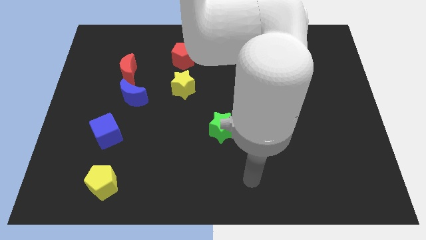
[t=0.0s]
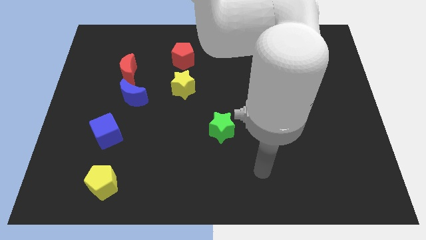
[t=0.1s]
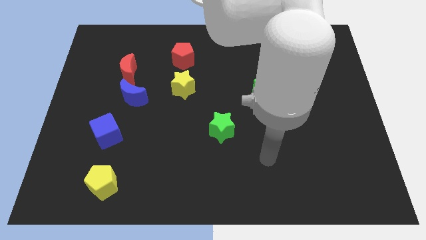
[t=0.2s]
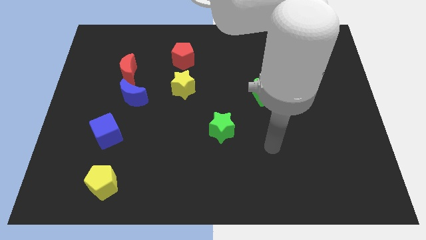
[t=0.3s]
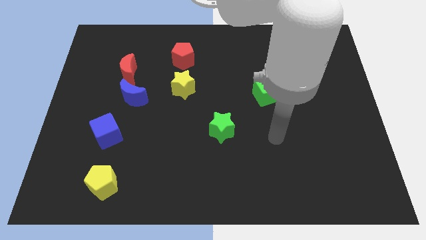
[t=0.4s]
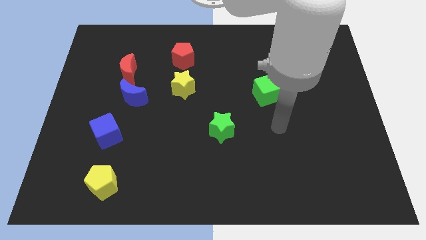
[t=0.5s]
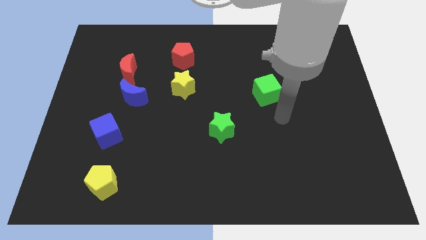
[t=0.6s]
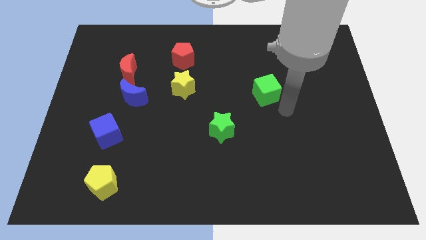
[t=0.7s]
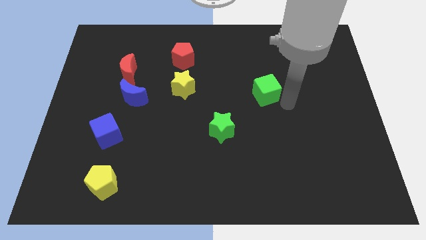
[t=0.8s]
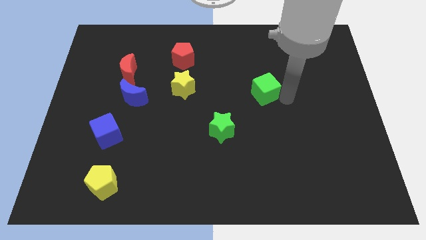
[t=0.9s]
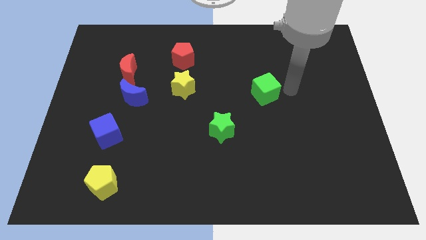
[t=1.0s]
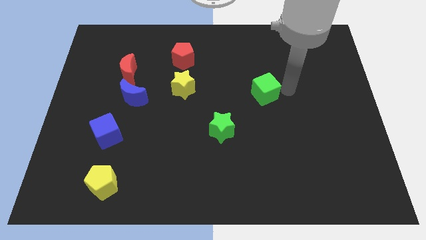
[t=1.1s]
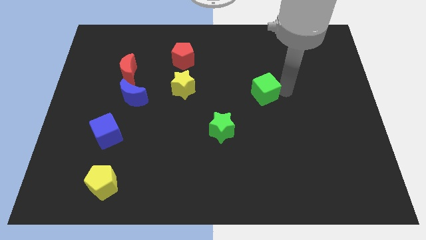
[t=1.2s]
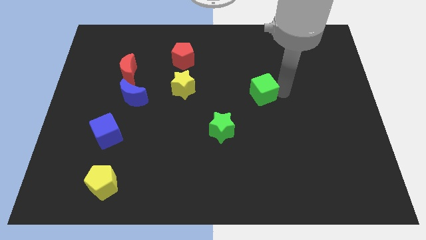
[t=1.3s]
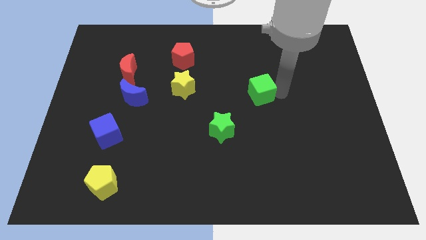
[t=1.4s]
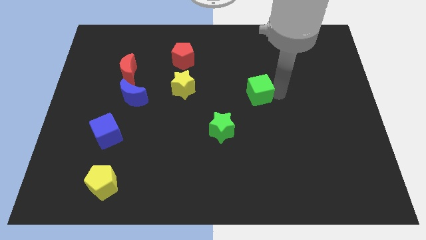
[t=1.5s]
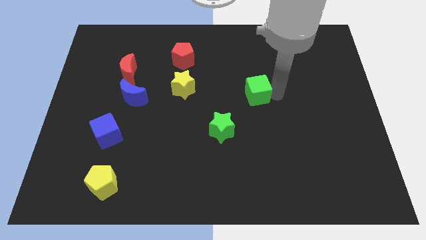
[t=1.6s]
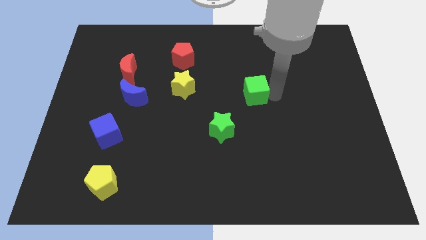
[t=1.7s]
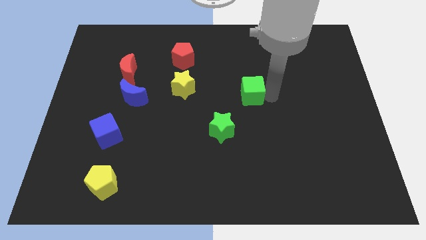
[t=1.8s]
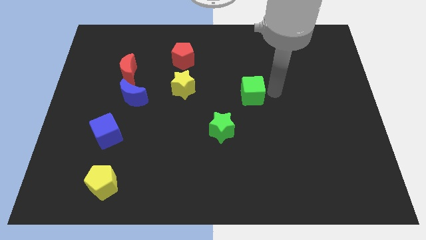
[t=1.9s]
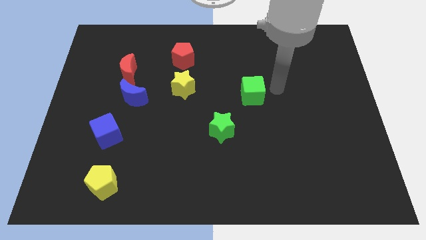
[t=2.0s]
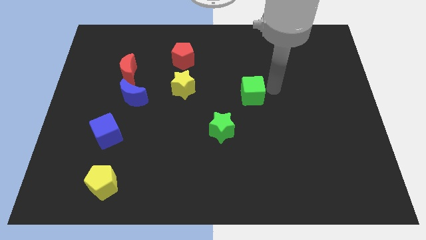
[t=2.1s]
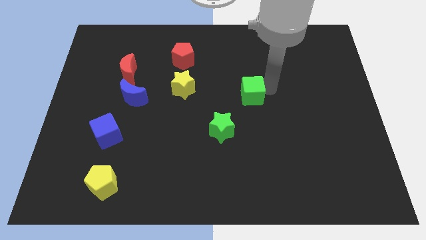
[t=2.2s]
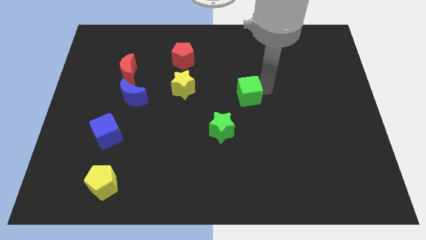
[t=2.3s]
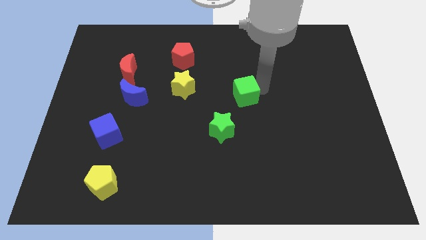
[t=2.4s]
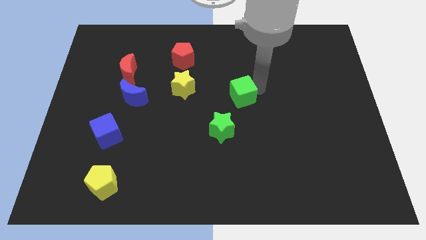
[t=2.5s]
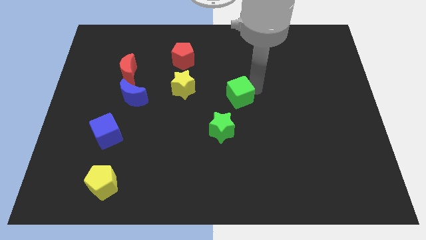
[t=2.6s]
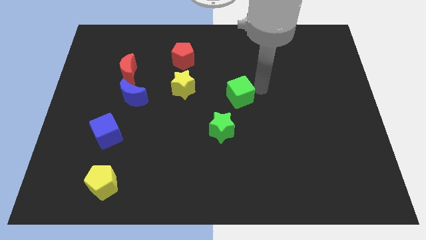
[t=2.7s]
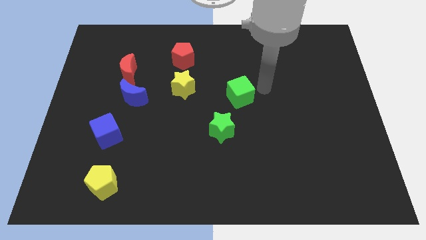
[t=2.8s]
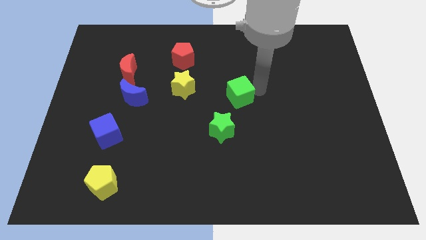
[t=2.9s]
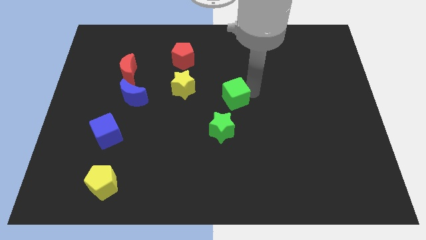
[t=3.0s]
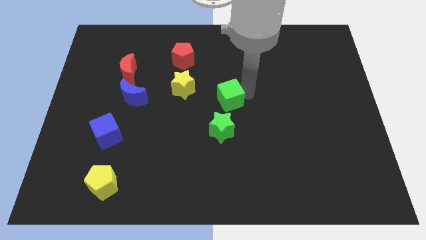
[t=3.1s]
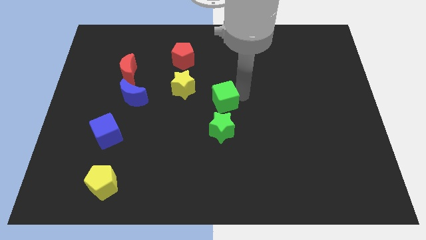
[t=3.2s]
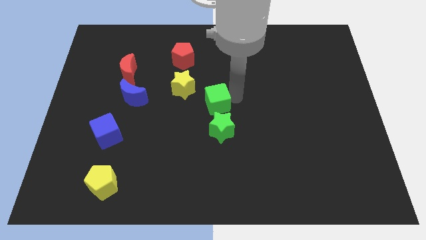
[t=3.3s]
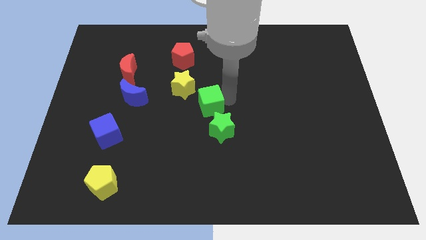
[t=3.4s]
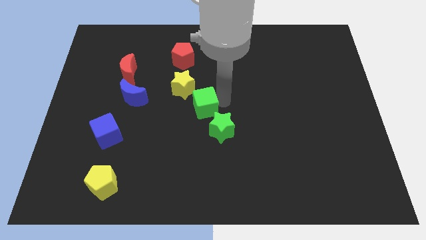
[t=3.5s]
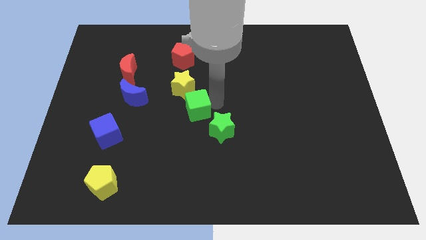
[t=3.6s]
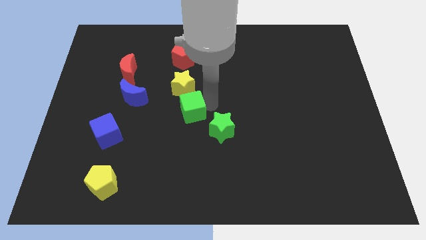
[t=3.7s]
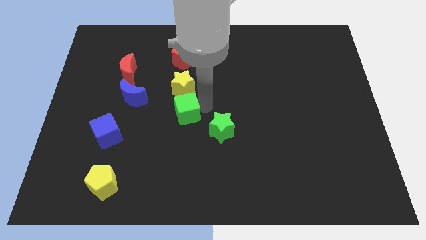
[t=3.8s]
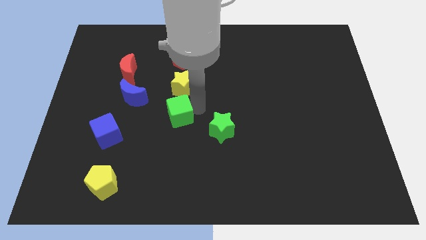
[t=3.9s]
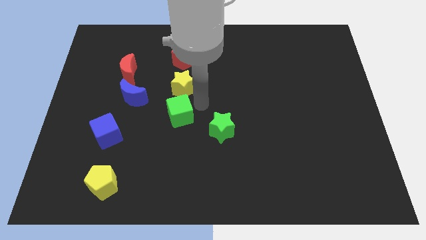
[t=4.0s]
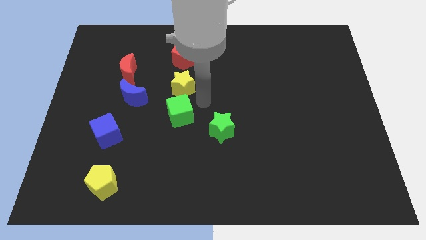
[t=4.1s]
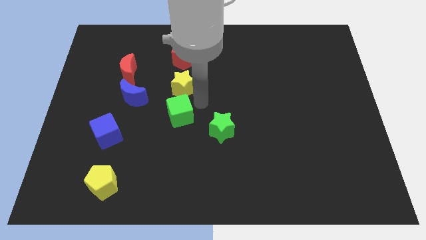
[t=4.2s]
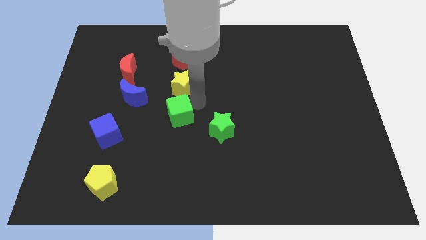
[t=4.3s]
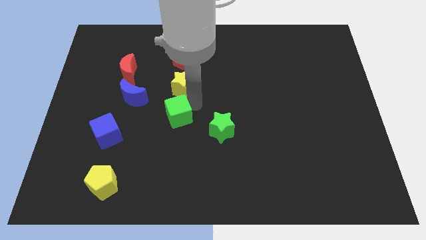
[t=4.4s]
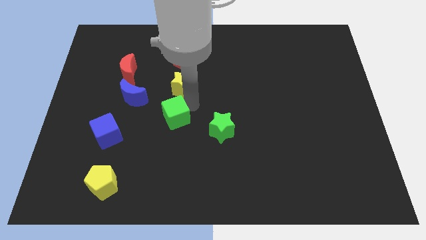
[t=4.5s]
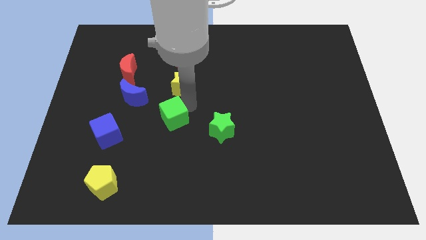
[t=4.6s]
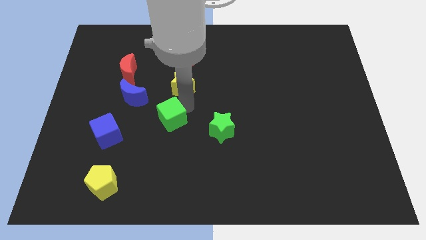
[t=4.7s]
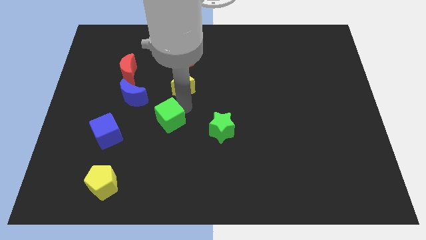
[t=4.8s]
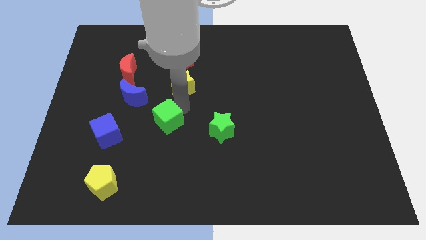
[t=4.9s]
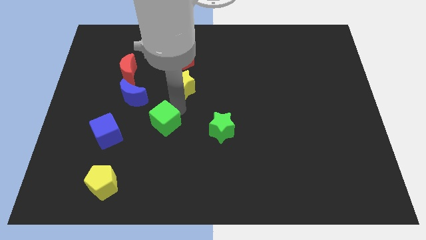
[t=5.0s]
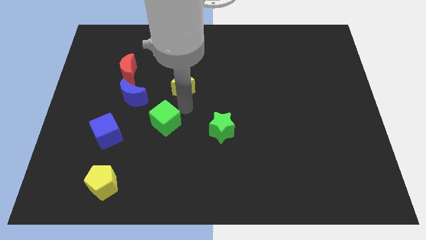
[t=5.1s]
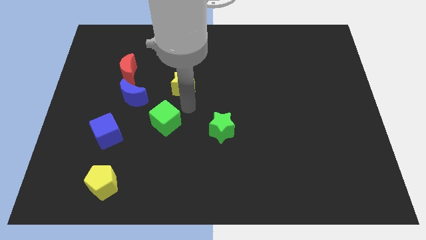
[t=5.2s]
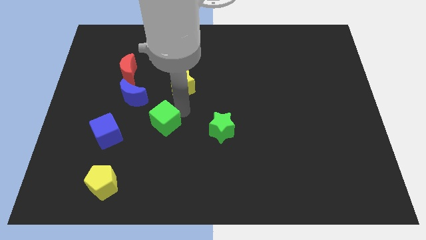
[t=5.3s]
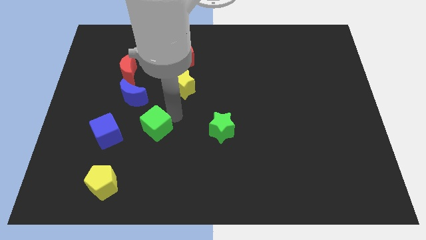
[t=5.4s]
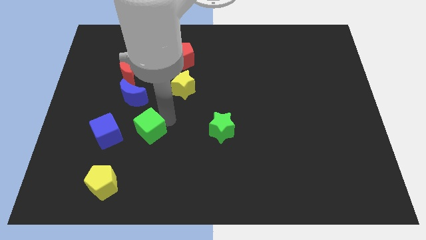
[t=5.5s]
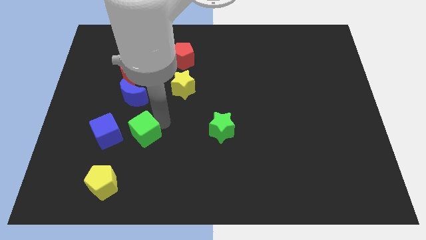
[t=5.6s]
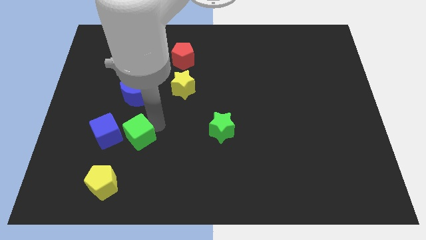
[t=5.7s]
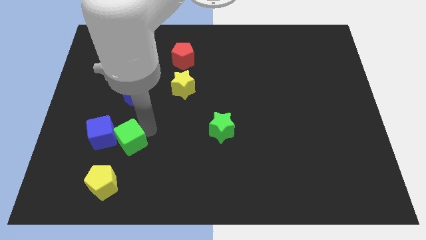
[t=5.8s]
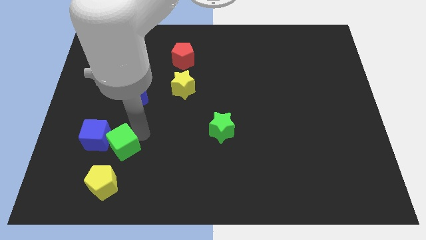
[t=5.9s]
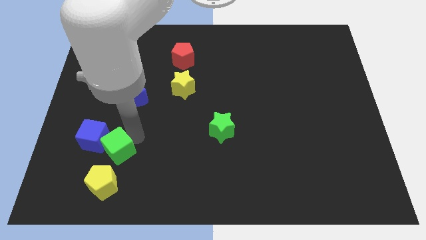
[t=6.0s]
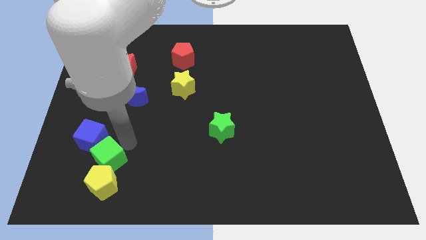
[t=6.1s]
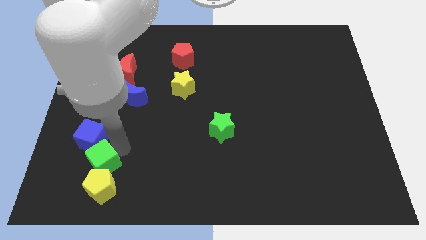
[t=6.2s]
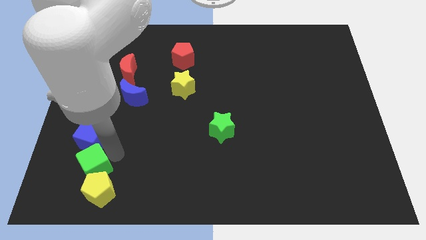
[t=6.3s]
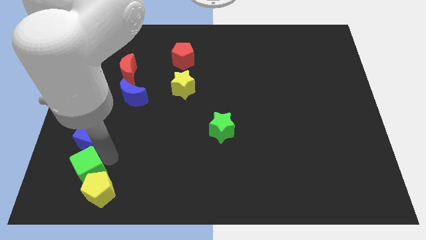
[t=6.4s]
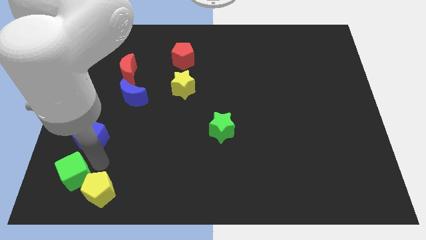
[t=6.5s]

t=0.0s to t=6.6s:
put the green cube to the bottom left corner
